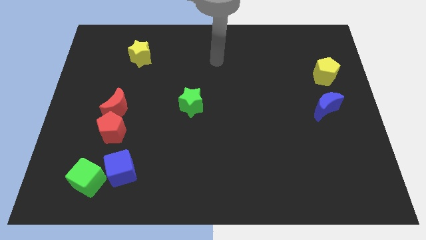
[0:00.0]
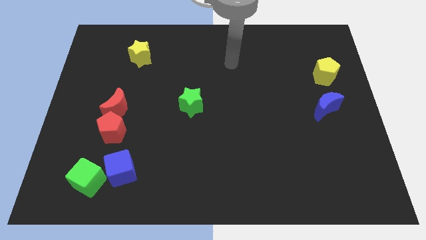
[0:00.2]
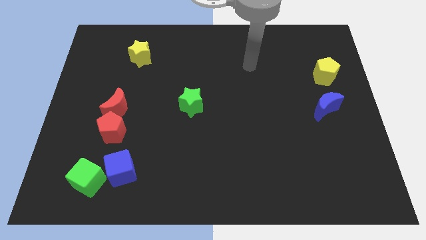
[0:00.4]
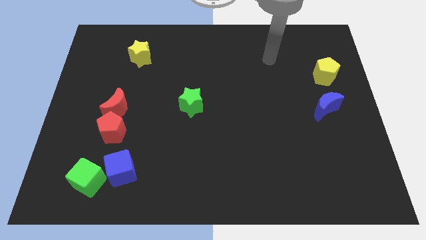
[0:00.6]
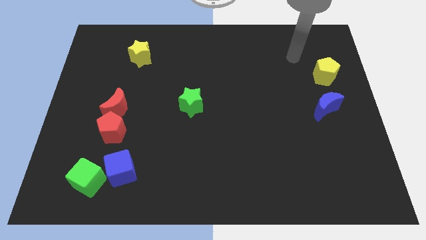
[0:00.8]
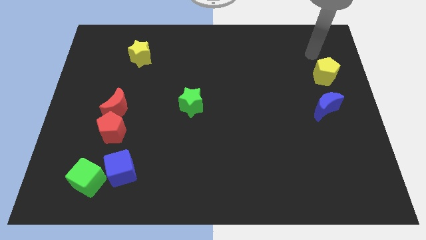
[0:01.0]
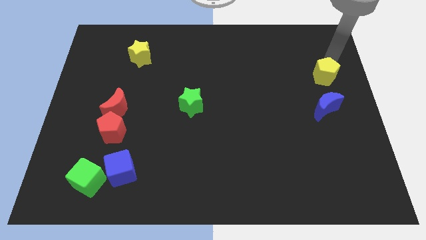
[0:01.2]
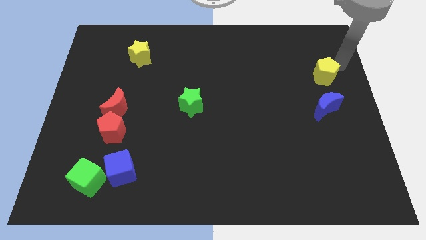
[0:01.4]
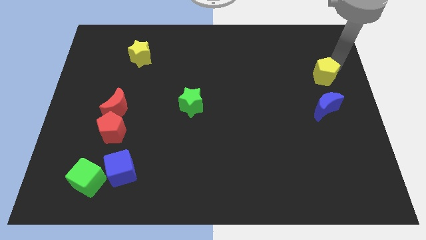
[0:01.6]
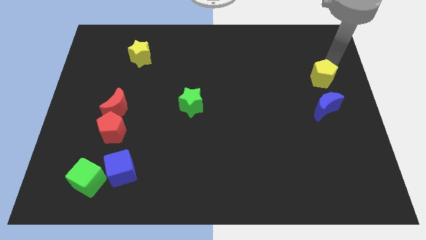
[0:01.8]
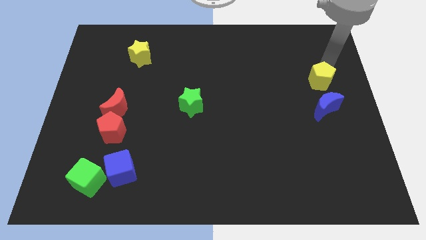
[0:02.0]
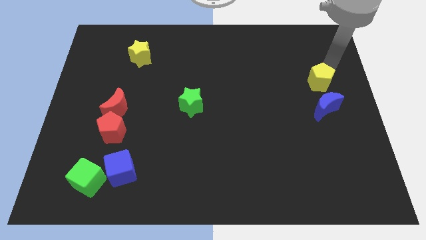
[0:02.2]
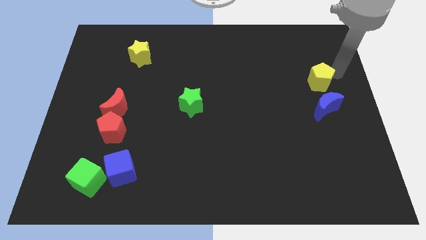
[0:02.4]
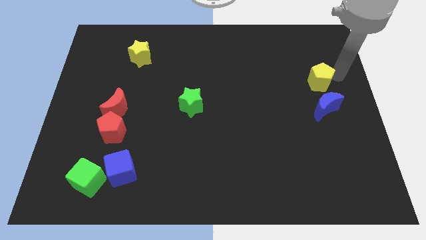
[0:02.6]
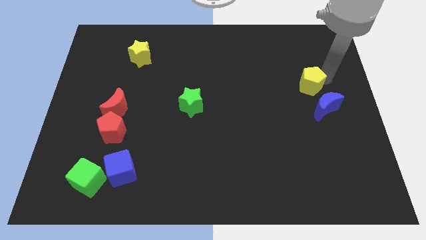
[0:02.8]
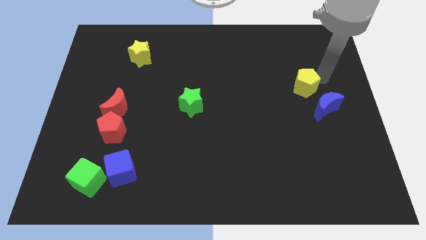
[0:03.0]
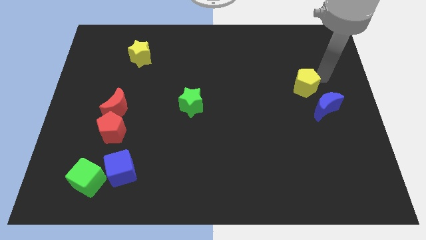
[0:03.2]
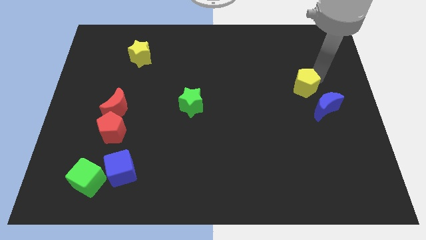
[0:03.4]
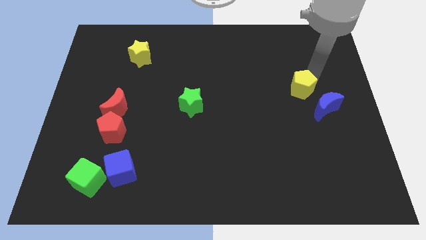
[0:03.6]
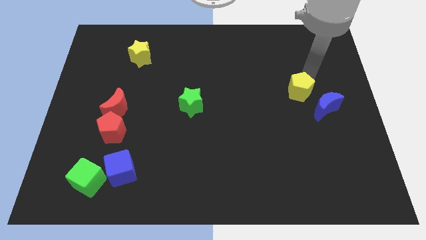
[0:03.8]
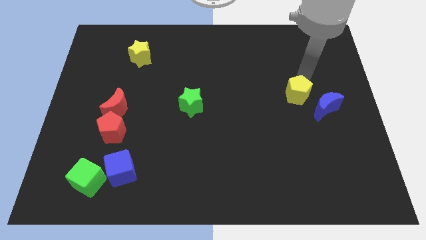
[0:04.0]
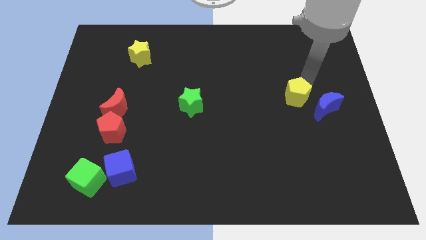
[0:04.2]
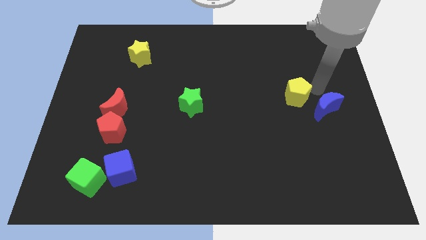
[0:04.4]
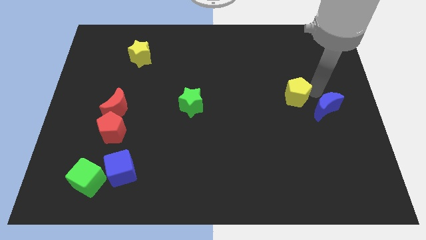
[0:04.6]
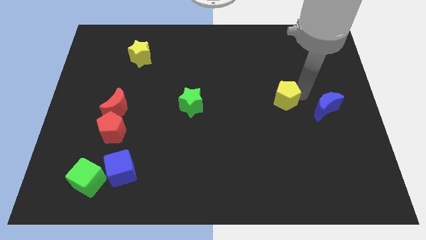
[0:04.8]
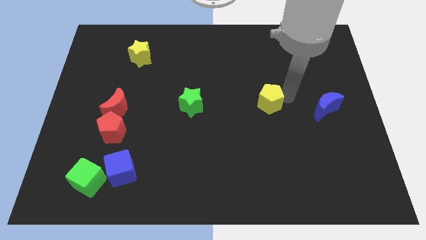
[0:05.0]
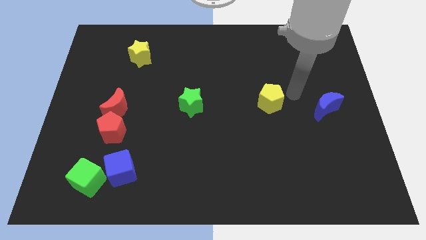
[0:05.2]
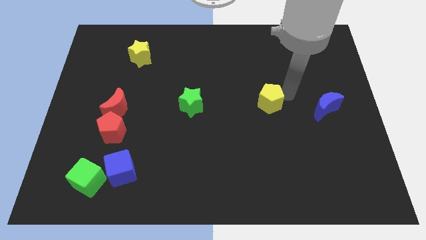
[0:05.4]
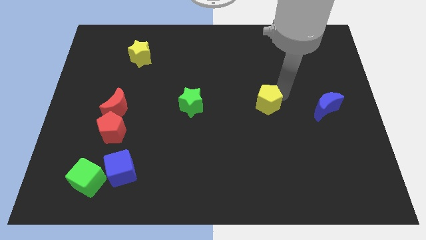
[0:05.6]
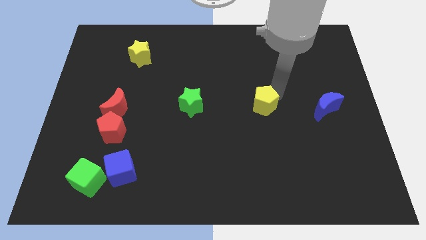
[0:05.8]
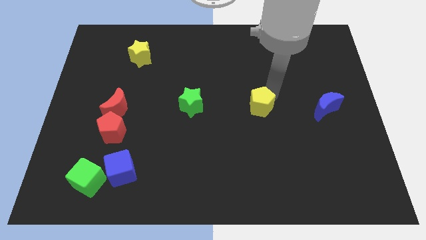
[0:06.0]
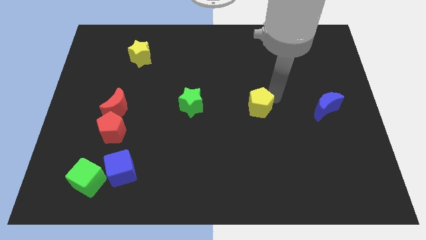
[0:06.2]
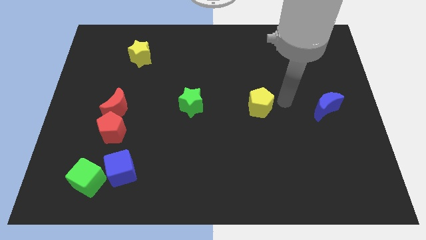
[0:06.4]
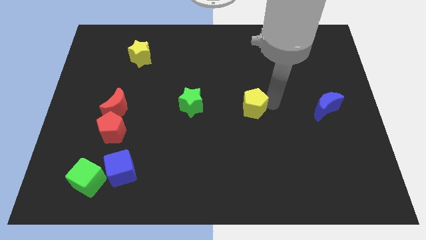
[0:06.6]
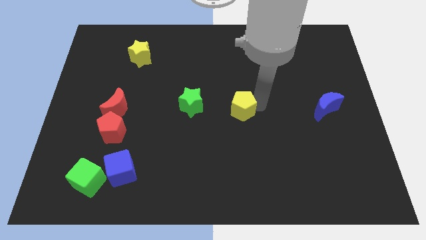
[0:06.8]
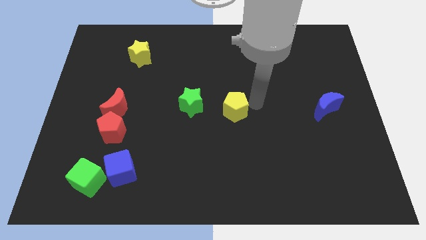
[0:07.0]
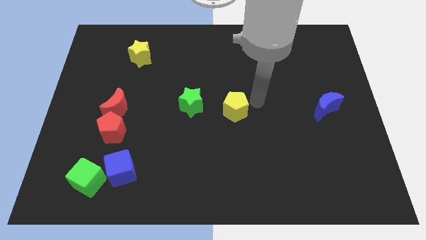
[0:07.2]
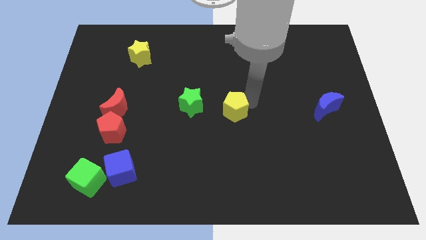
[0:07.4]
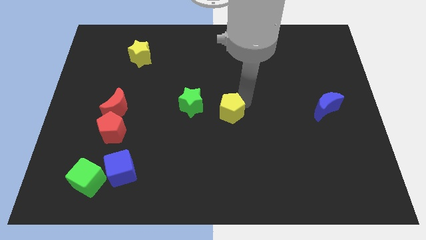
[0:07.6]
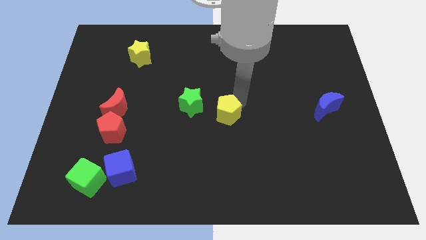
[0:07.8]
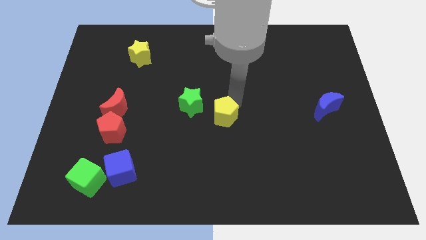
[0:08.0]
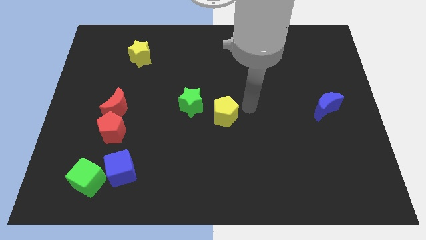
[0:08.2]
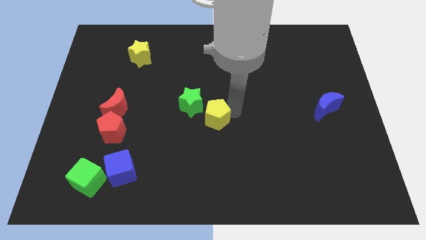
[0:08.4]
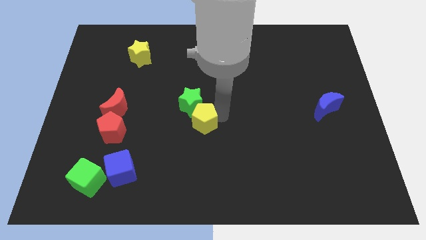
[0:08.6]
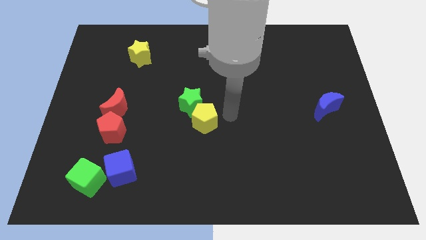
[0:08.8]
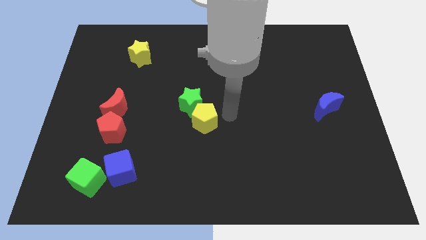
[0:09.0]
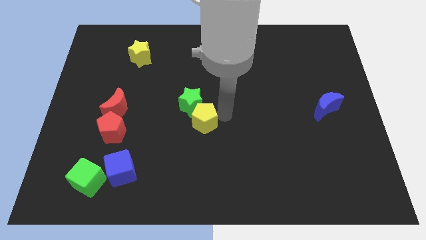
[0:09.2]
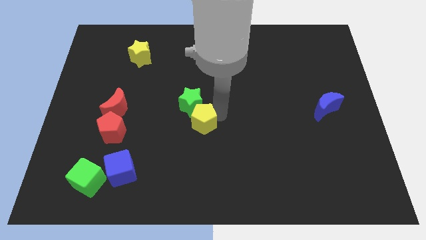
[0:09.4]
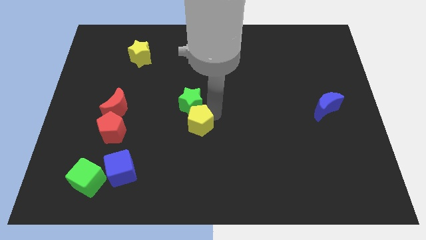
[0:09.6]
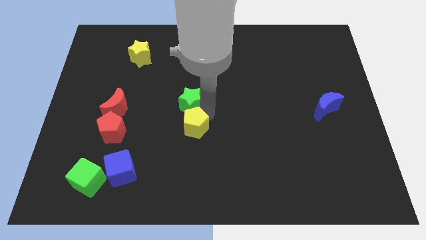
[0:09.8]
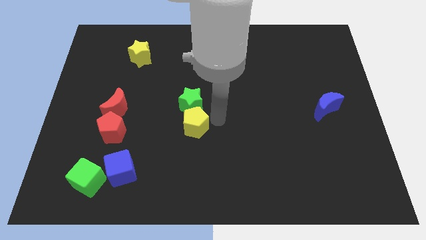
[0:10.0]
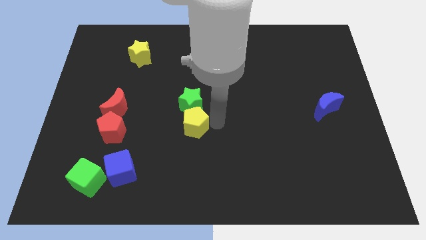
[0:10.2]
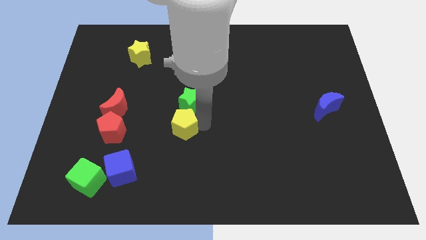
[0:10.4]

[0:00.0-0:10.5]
move the yellow pentagon to the right of the red pentagon

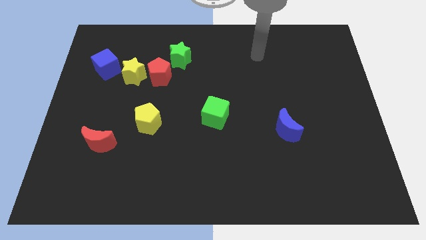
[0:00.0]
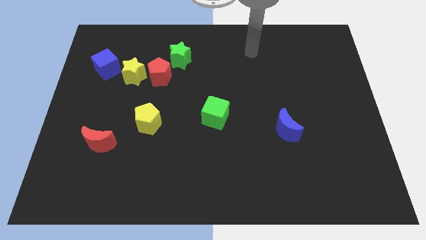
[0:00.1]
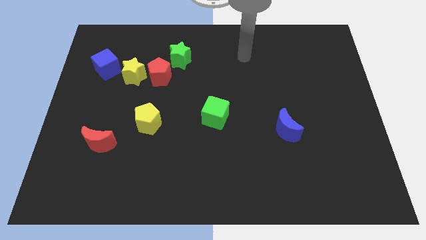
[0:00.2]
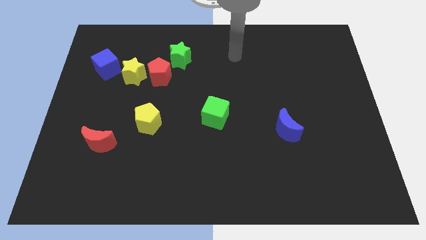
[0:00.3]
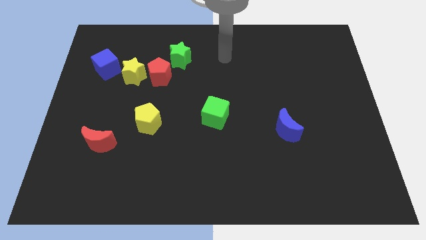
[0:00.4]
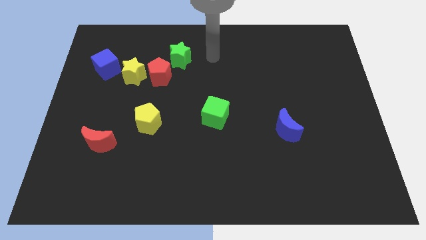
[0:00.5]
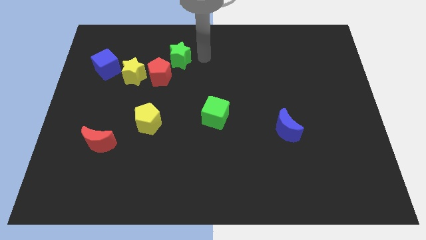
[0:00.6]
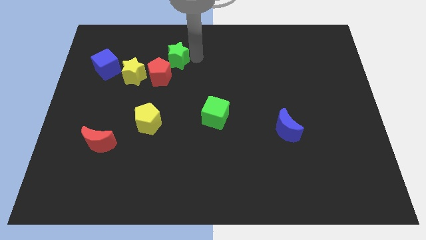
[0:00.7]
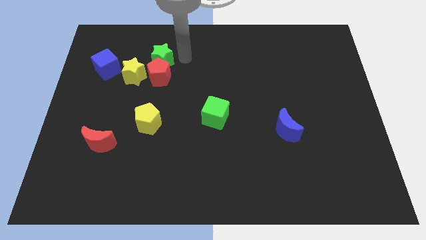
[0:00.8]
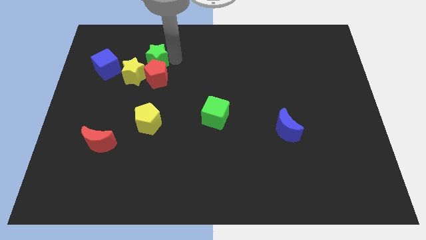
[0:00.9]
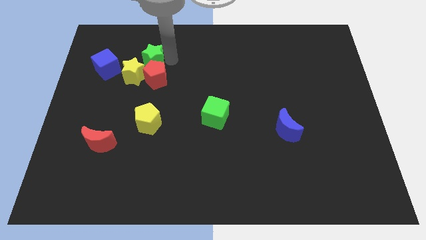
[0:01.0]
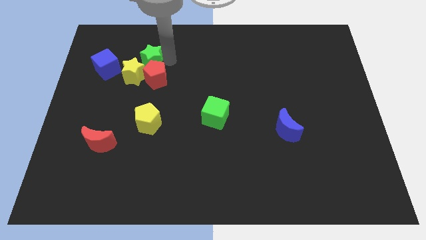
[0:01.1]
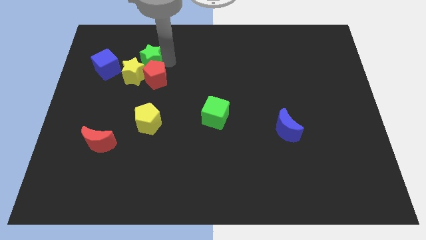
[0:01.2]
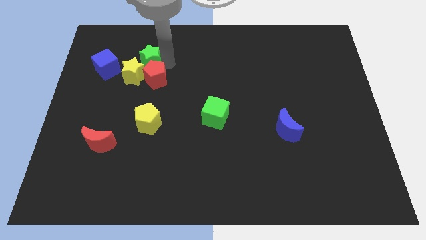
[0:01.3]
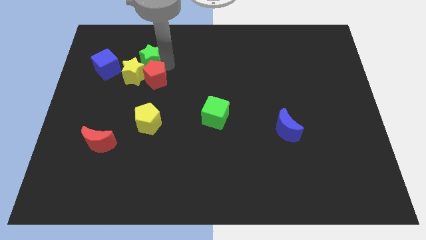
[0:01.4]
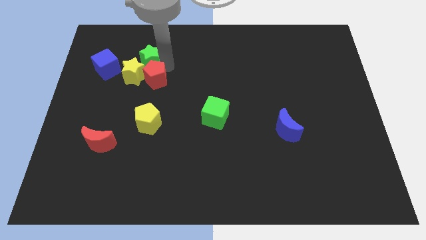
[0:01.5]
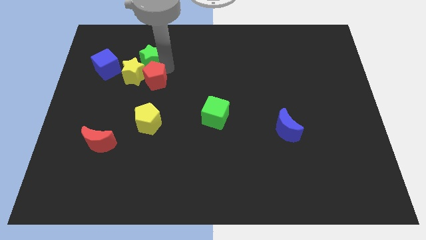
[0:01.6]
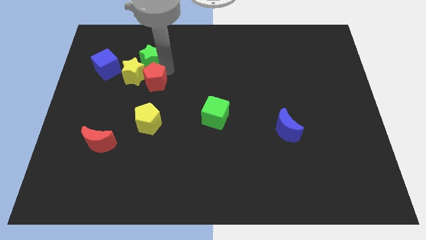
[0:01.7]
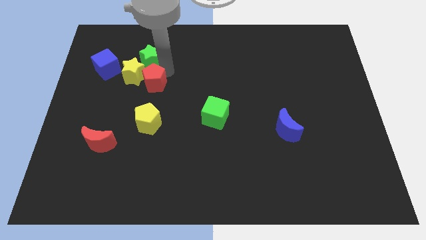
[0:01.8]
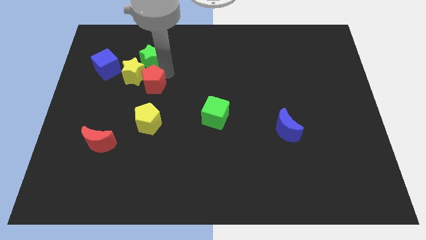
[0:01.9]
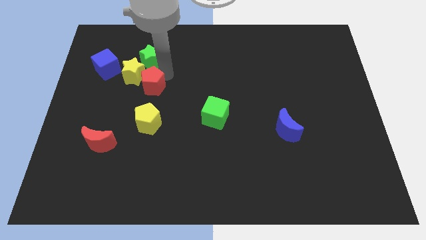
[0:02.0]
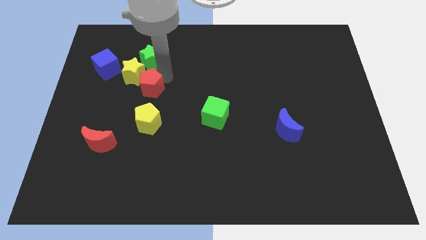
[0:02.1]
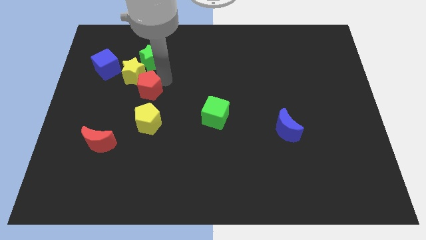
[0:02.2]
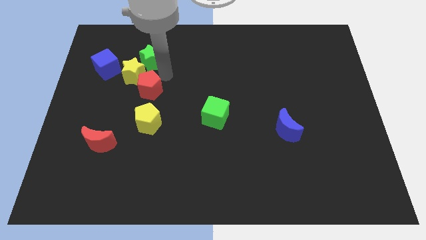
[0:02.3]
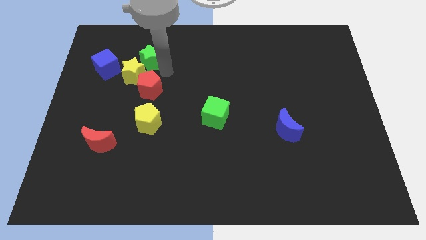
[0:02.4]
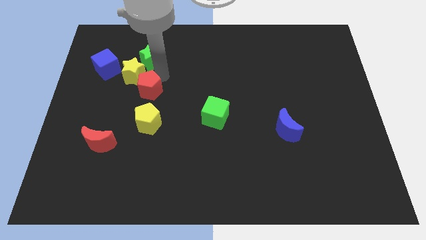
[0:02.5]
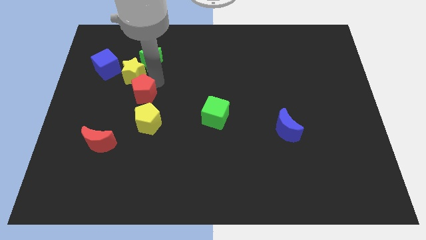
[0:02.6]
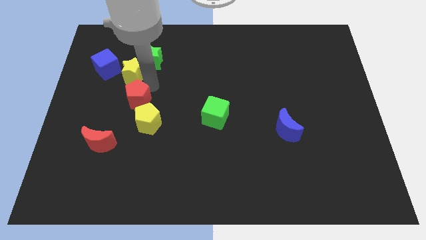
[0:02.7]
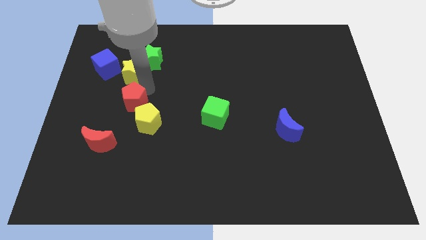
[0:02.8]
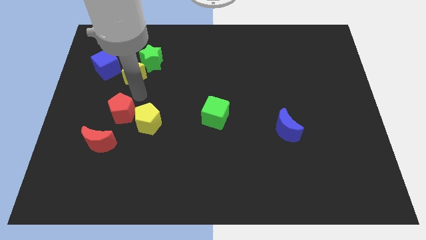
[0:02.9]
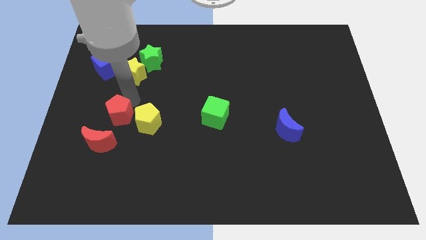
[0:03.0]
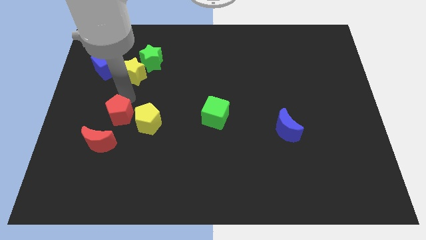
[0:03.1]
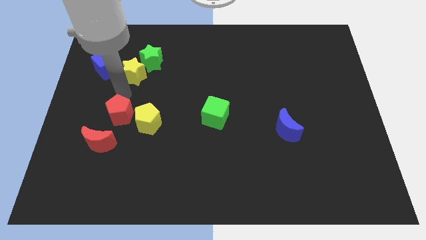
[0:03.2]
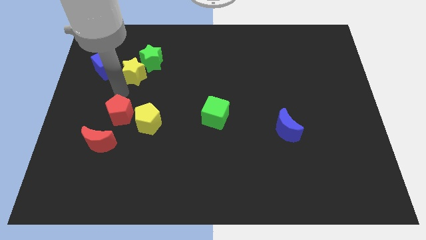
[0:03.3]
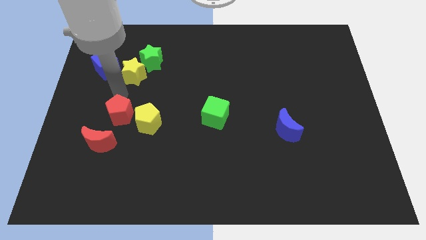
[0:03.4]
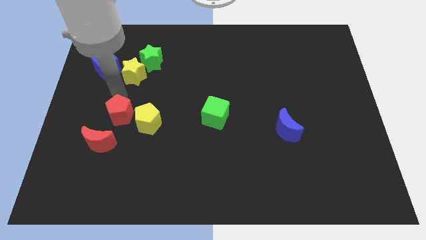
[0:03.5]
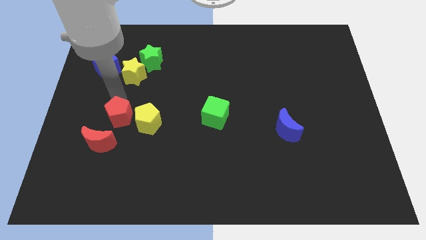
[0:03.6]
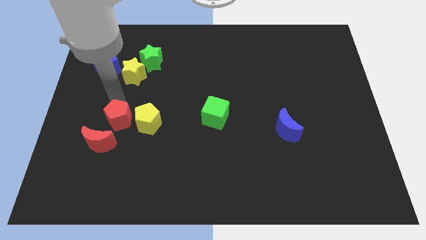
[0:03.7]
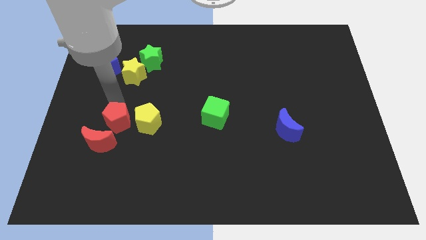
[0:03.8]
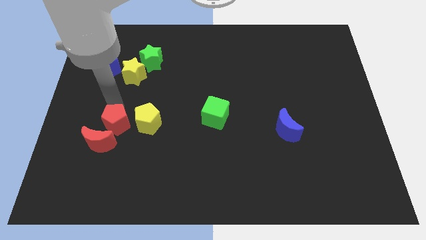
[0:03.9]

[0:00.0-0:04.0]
move the red pentagon to the bottom left side of the yellow pentagon
